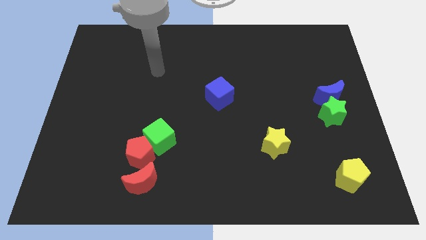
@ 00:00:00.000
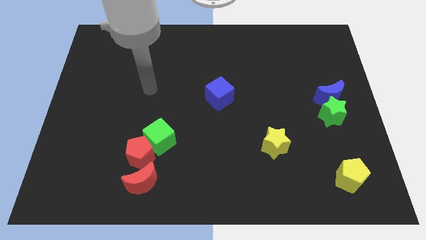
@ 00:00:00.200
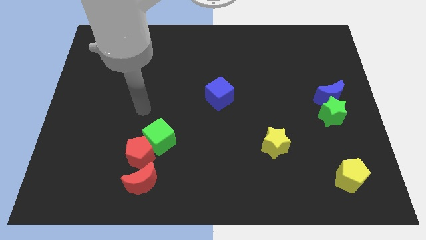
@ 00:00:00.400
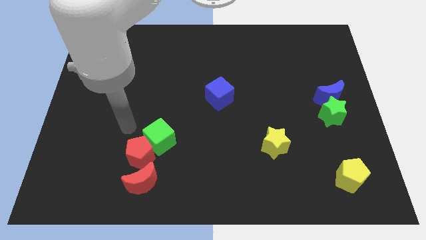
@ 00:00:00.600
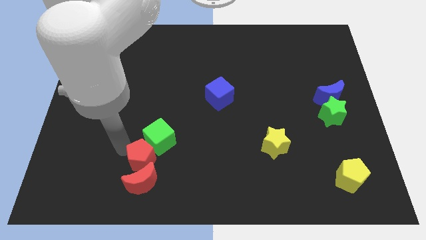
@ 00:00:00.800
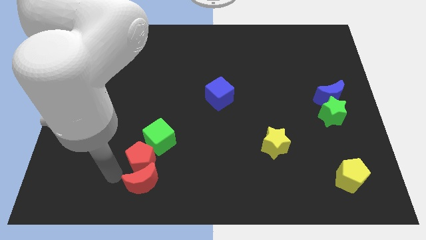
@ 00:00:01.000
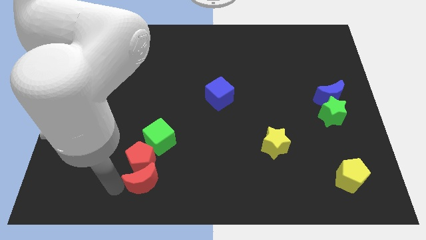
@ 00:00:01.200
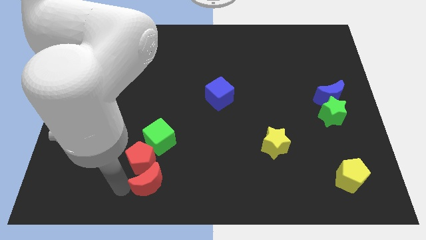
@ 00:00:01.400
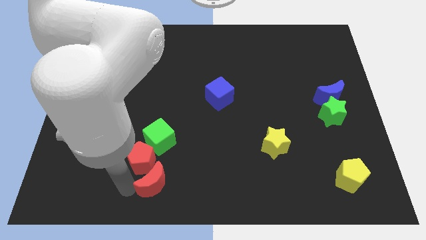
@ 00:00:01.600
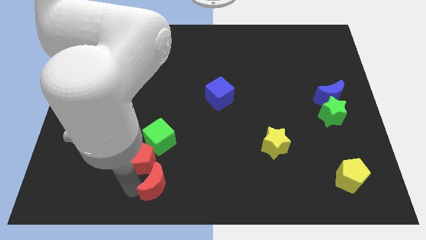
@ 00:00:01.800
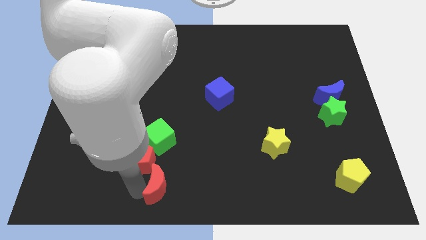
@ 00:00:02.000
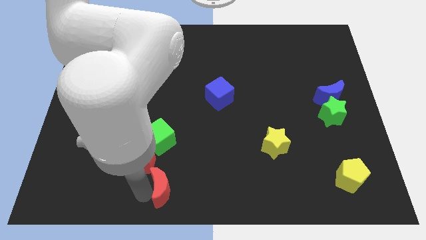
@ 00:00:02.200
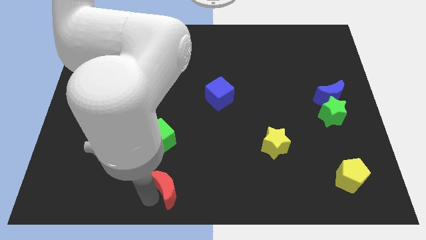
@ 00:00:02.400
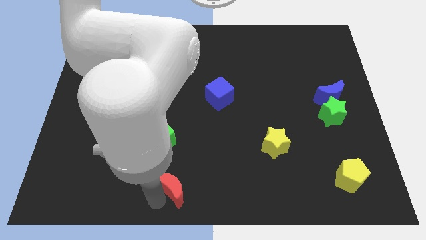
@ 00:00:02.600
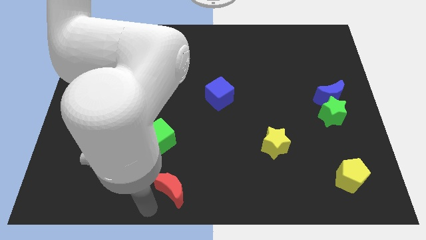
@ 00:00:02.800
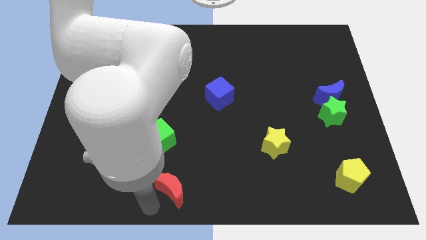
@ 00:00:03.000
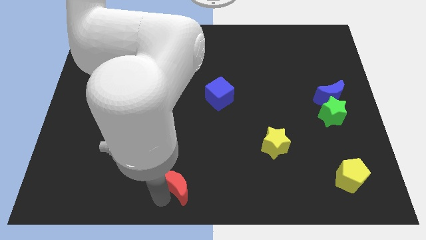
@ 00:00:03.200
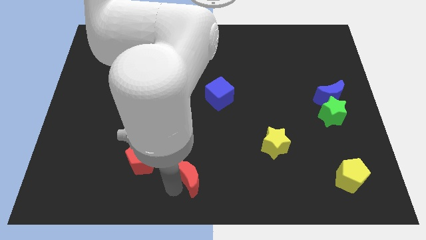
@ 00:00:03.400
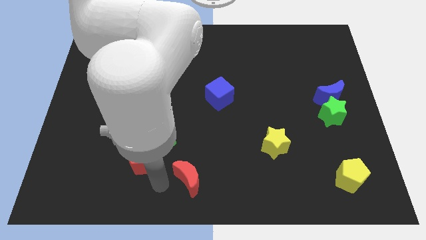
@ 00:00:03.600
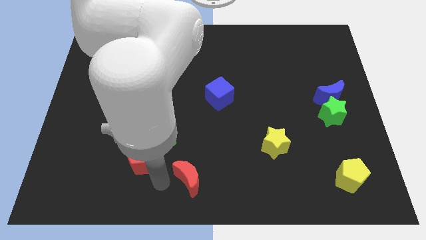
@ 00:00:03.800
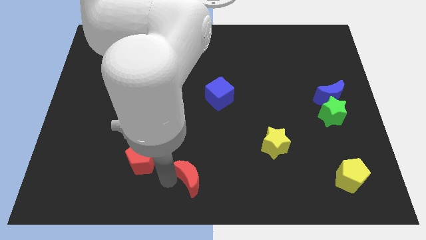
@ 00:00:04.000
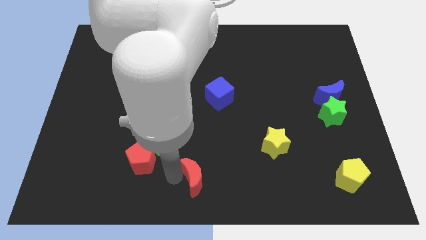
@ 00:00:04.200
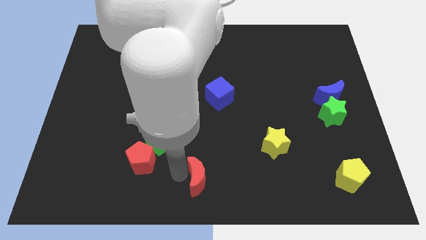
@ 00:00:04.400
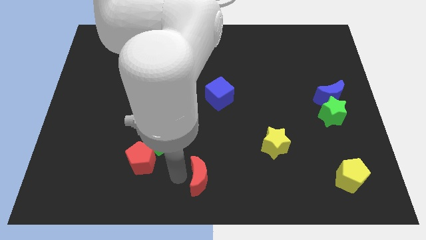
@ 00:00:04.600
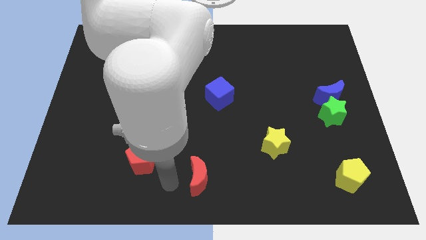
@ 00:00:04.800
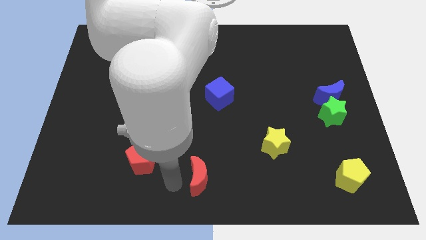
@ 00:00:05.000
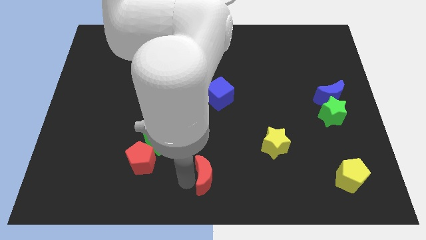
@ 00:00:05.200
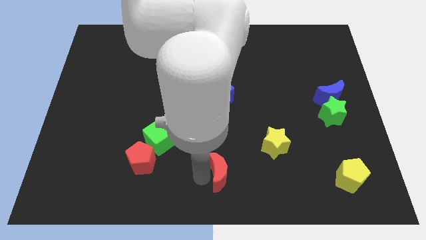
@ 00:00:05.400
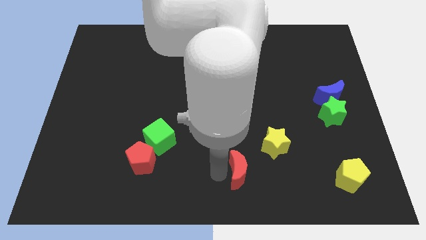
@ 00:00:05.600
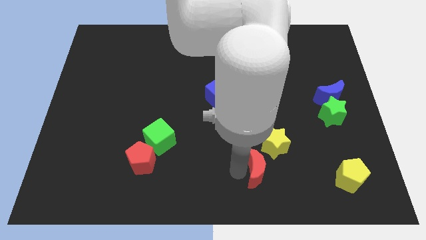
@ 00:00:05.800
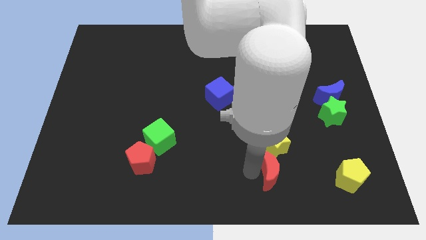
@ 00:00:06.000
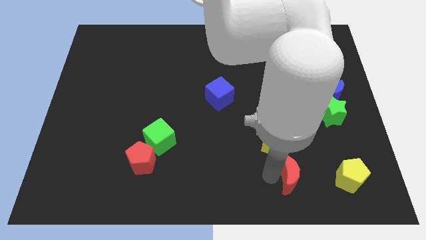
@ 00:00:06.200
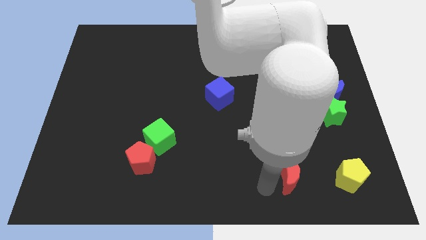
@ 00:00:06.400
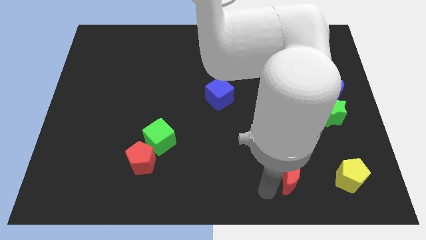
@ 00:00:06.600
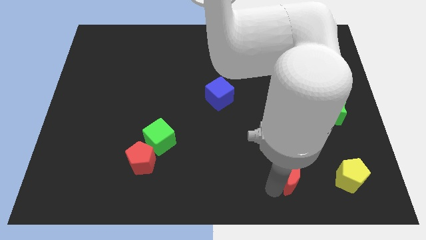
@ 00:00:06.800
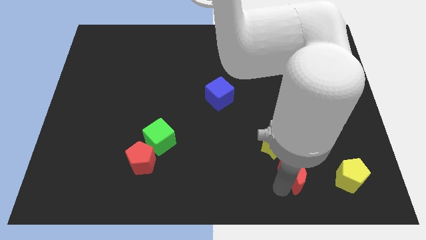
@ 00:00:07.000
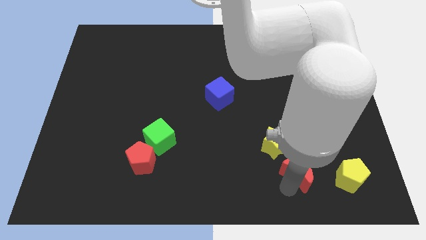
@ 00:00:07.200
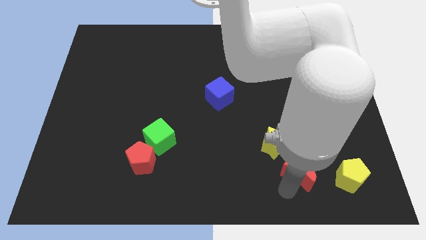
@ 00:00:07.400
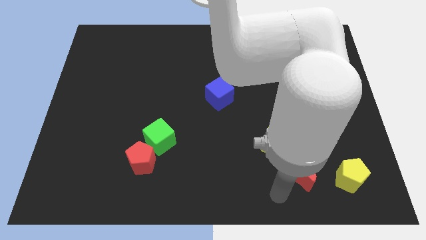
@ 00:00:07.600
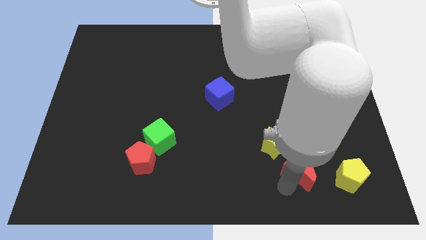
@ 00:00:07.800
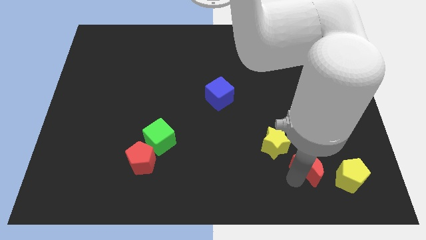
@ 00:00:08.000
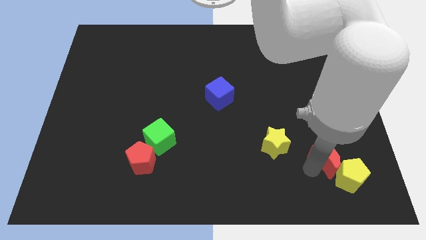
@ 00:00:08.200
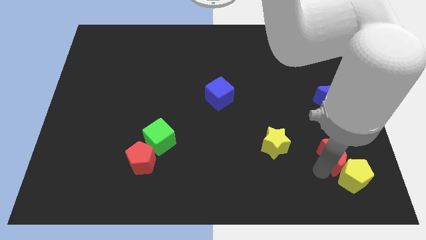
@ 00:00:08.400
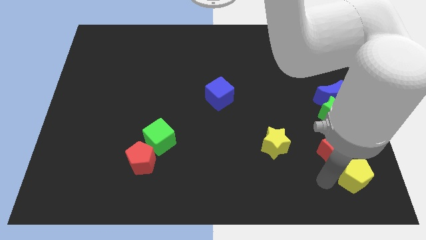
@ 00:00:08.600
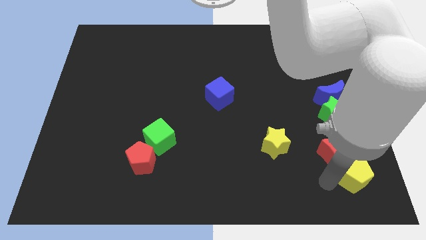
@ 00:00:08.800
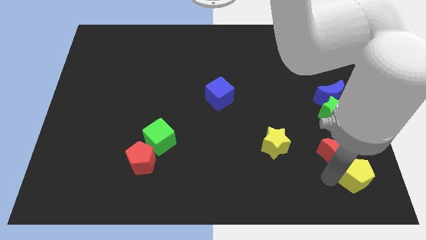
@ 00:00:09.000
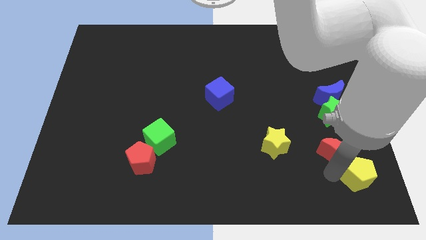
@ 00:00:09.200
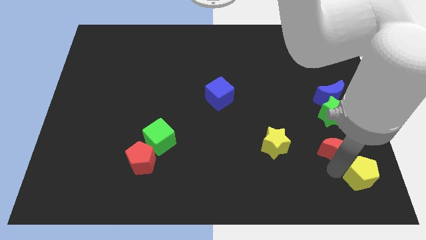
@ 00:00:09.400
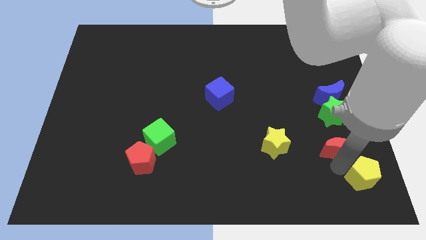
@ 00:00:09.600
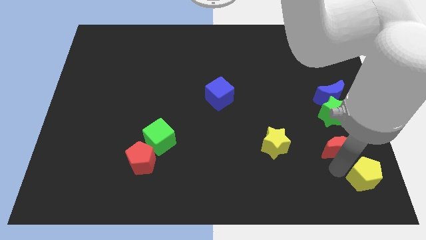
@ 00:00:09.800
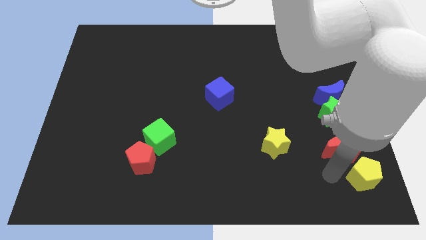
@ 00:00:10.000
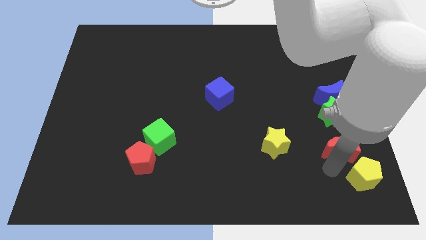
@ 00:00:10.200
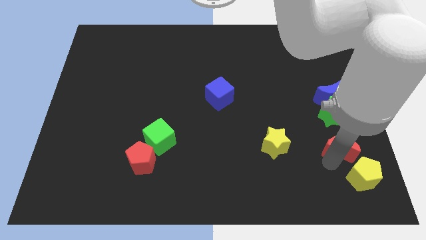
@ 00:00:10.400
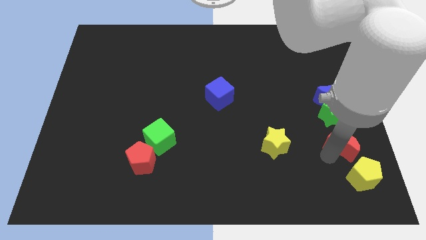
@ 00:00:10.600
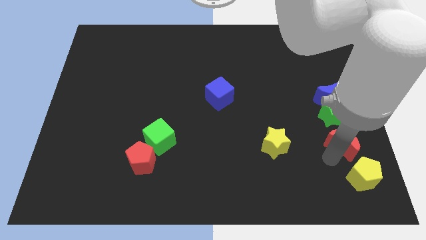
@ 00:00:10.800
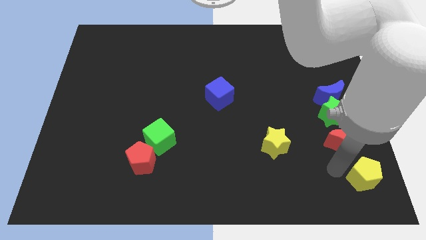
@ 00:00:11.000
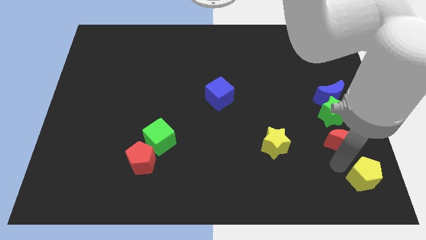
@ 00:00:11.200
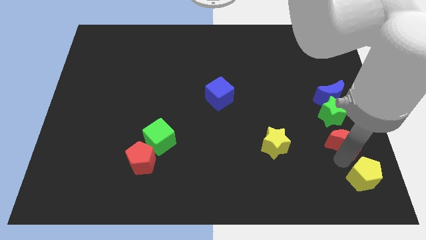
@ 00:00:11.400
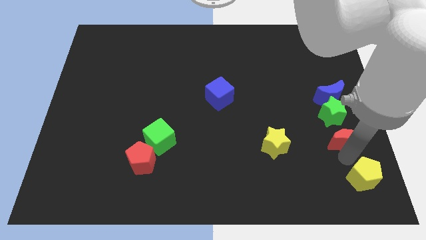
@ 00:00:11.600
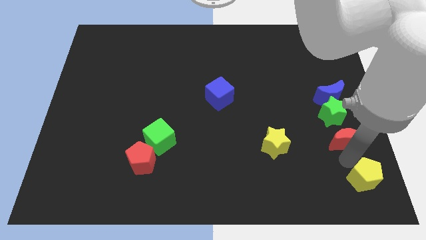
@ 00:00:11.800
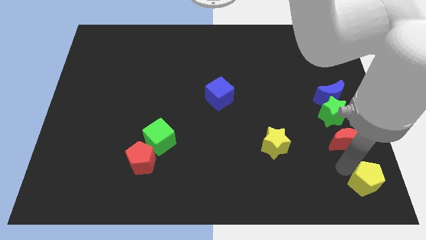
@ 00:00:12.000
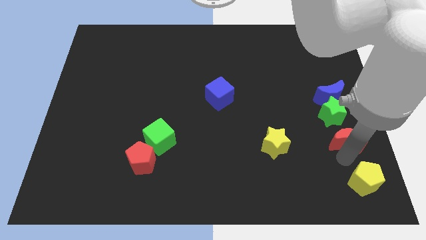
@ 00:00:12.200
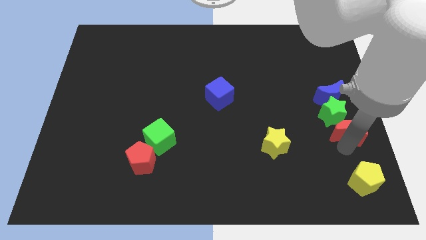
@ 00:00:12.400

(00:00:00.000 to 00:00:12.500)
push the red moon to the right side
